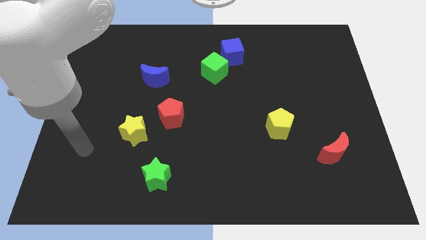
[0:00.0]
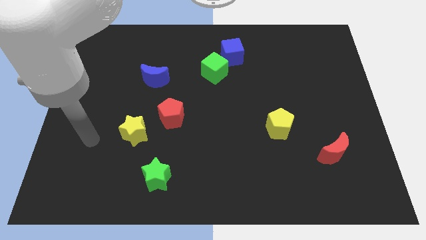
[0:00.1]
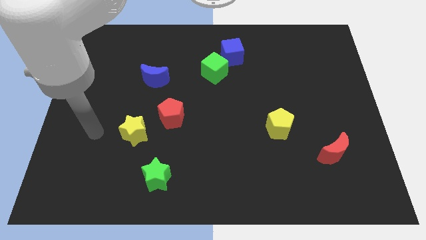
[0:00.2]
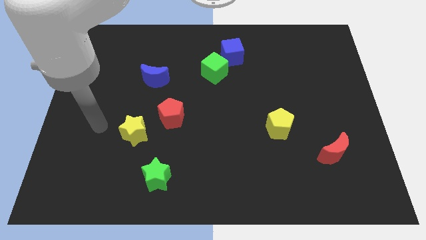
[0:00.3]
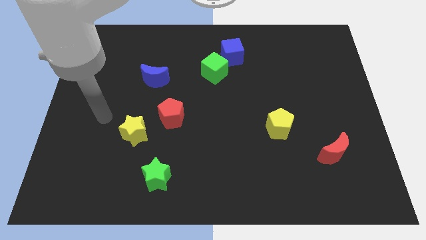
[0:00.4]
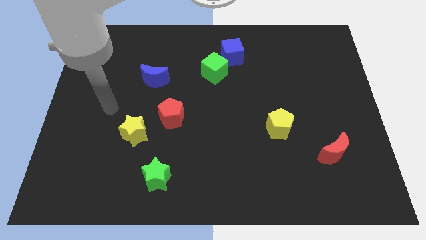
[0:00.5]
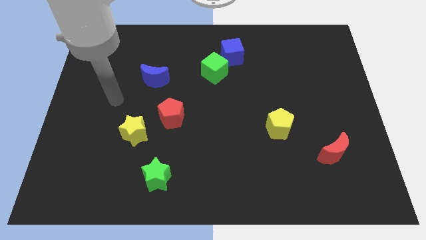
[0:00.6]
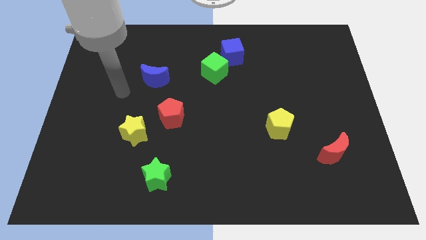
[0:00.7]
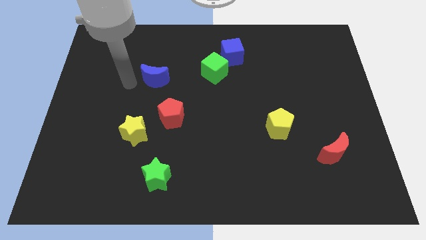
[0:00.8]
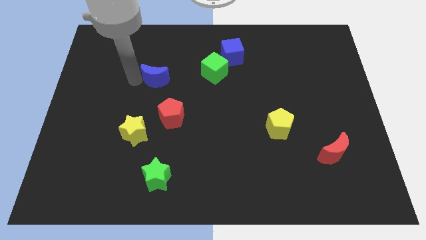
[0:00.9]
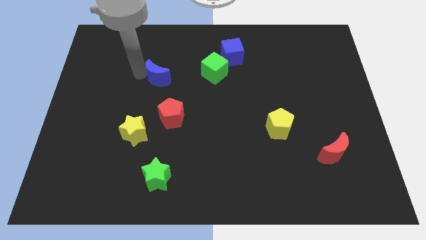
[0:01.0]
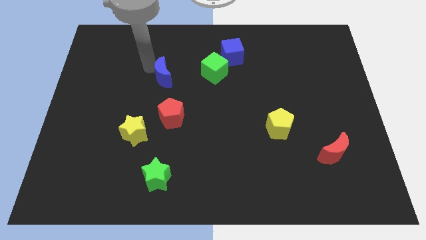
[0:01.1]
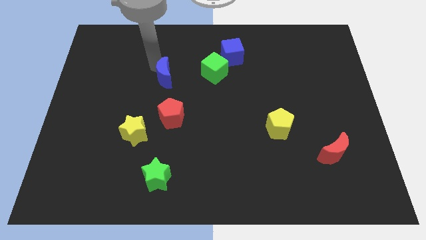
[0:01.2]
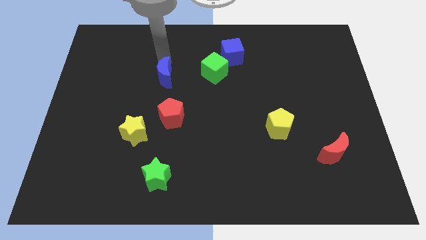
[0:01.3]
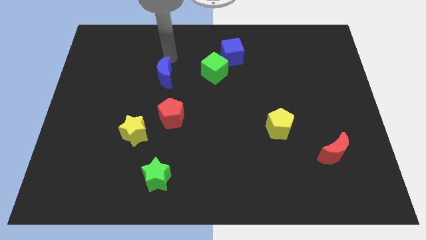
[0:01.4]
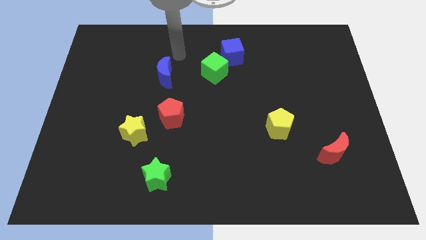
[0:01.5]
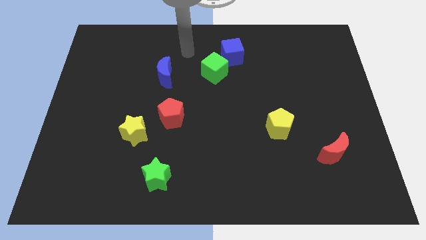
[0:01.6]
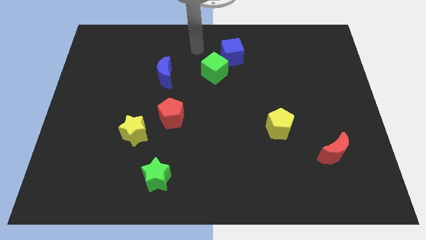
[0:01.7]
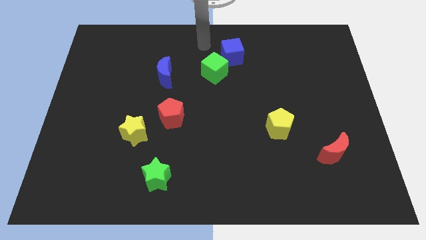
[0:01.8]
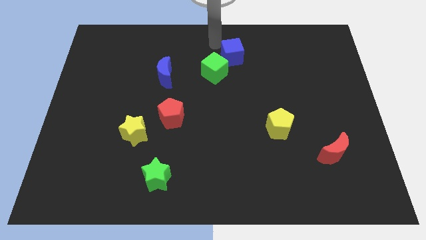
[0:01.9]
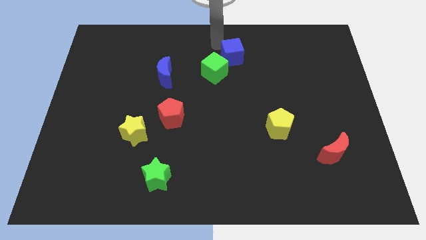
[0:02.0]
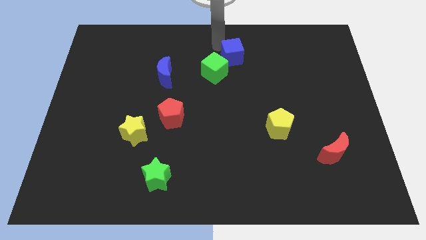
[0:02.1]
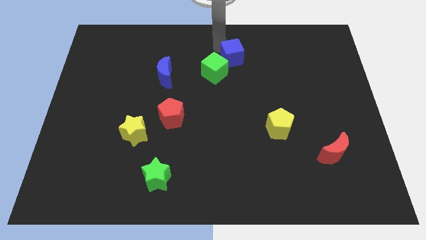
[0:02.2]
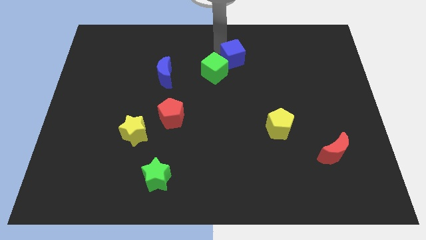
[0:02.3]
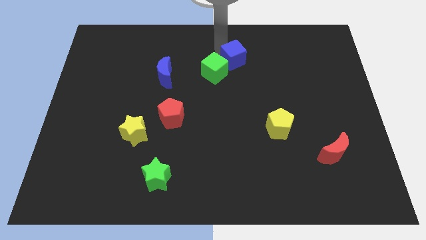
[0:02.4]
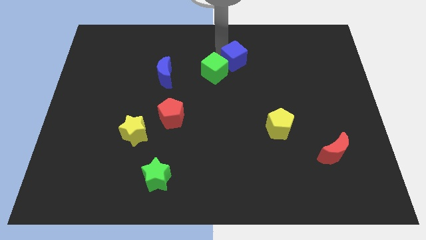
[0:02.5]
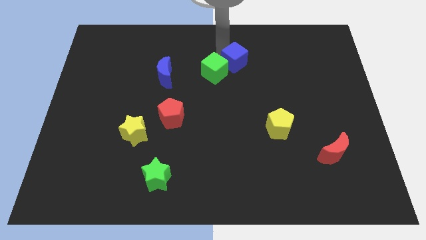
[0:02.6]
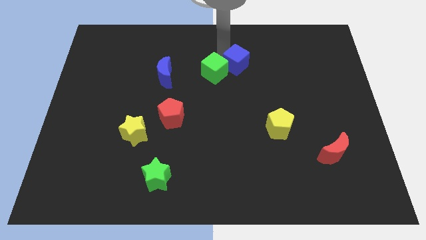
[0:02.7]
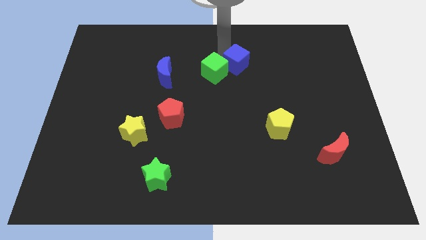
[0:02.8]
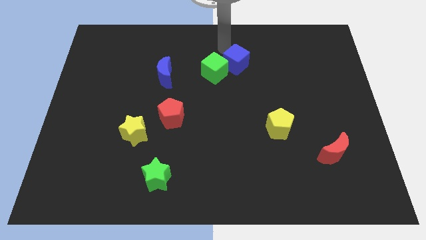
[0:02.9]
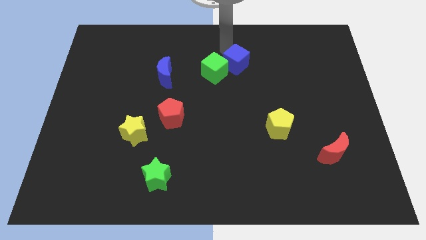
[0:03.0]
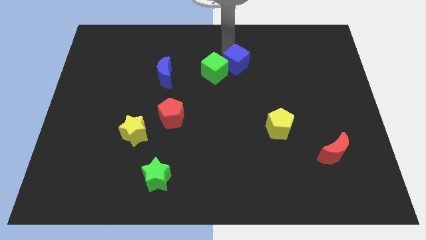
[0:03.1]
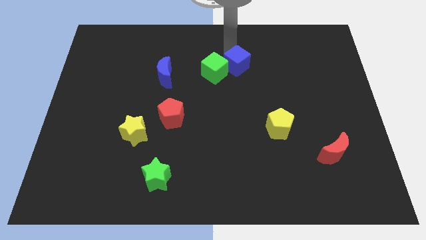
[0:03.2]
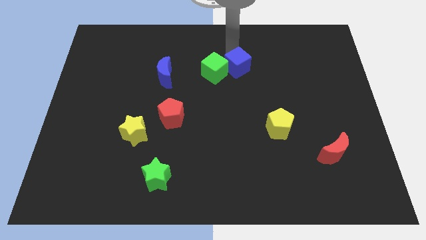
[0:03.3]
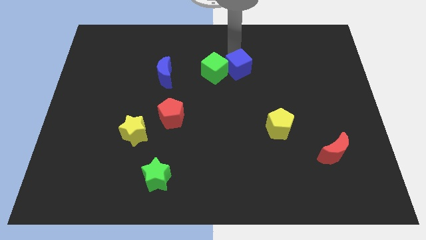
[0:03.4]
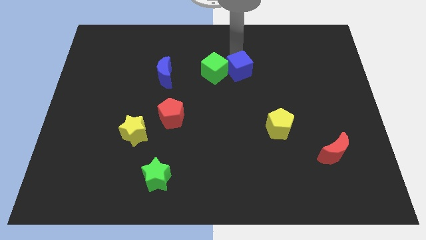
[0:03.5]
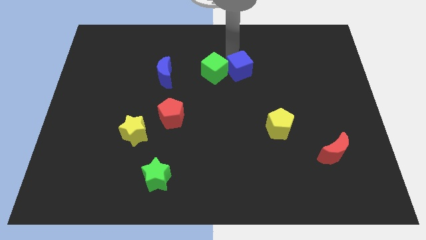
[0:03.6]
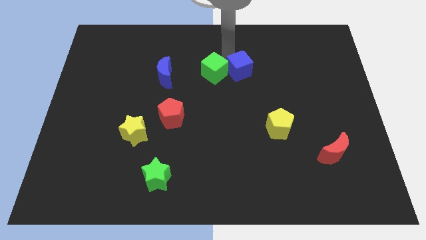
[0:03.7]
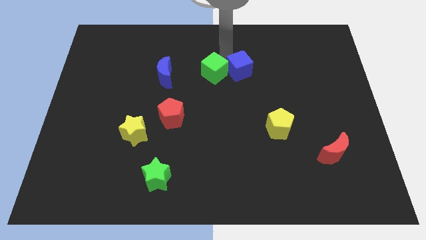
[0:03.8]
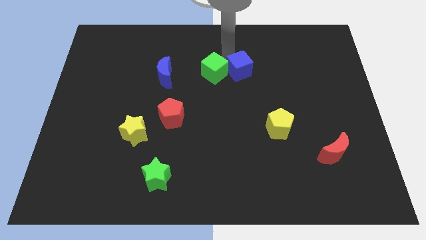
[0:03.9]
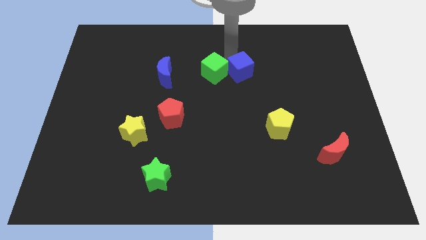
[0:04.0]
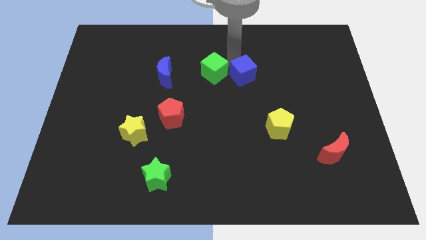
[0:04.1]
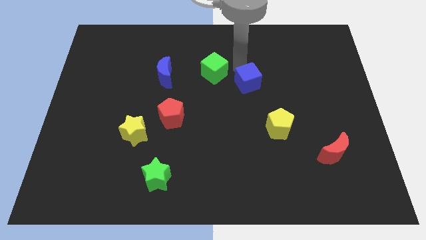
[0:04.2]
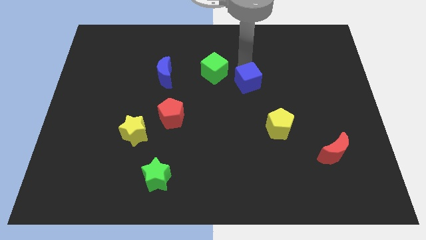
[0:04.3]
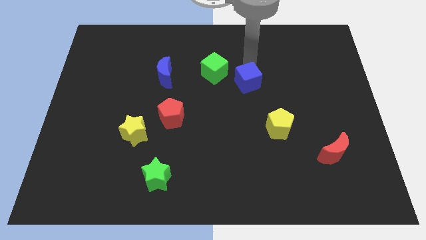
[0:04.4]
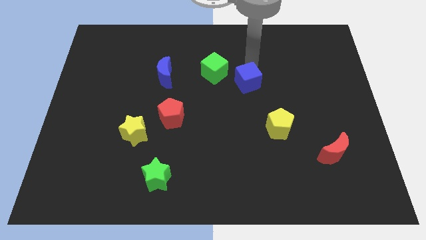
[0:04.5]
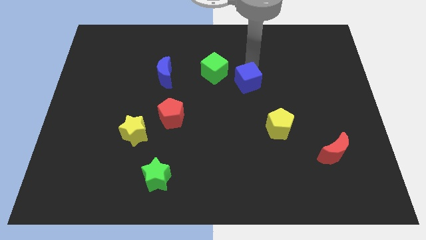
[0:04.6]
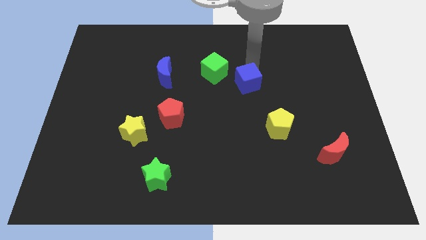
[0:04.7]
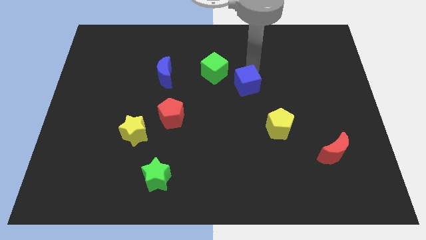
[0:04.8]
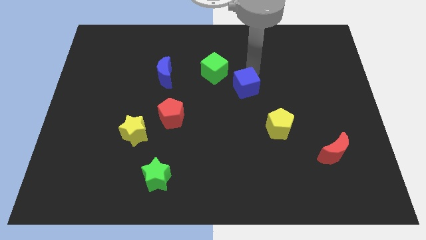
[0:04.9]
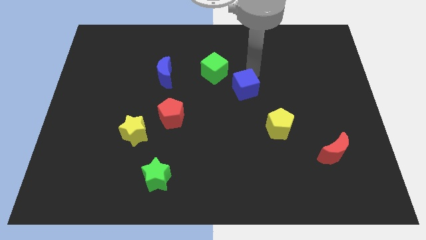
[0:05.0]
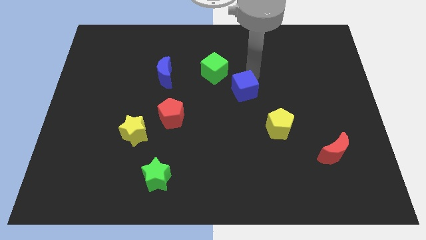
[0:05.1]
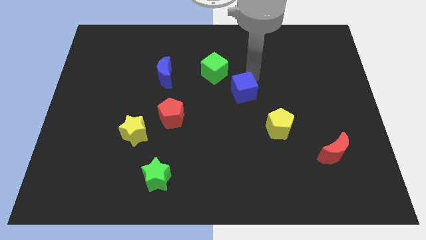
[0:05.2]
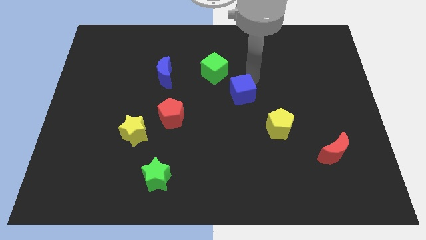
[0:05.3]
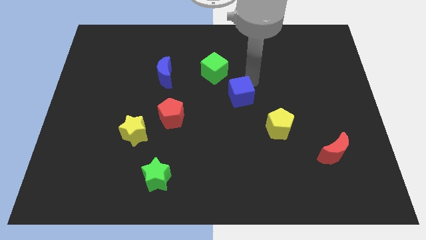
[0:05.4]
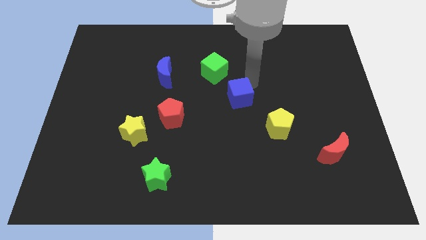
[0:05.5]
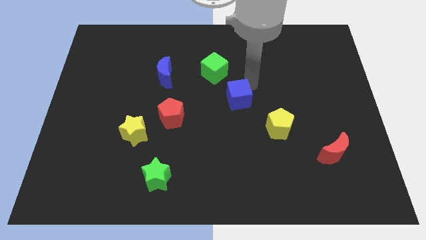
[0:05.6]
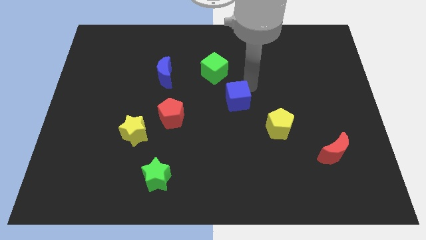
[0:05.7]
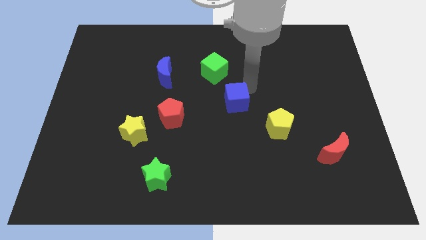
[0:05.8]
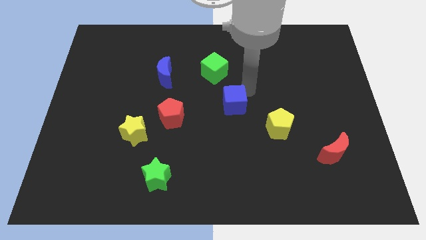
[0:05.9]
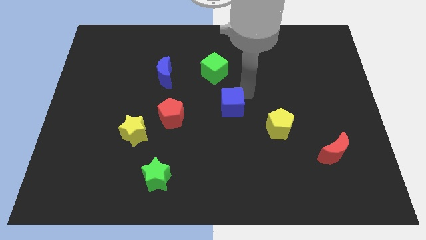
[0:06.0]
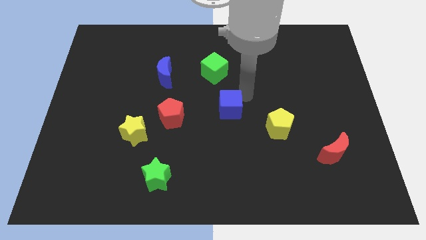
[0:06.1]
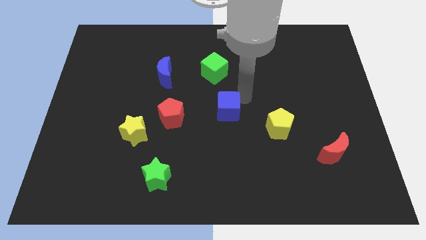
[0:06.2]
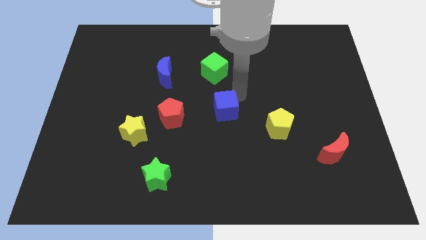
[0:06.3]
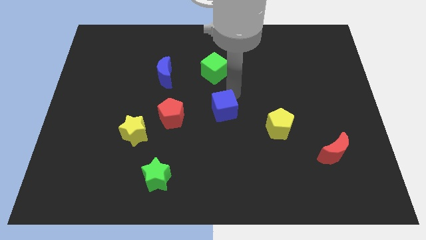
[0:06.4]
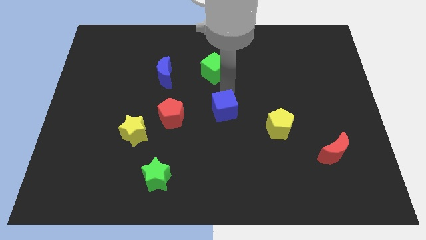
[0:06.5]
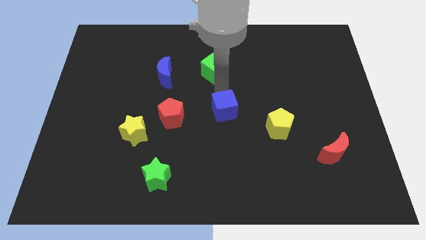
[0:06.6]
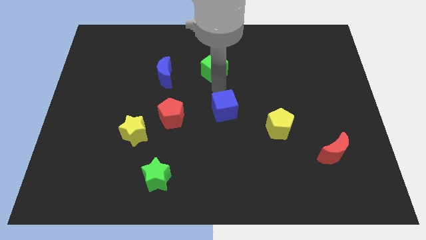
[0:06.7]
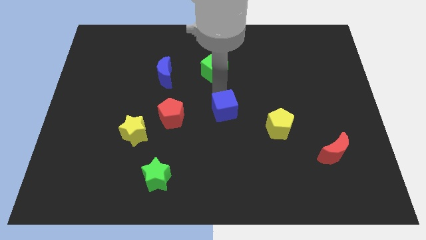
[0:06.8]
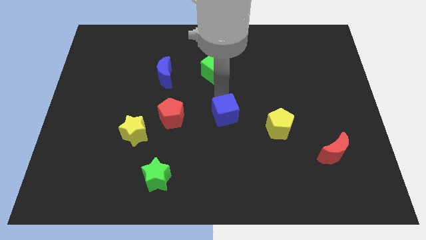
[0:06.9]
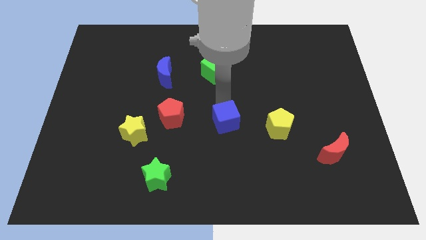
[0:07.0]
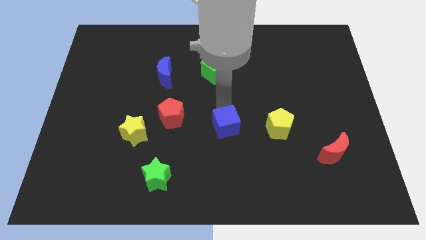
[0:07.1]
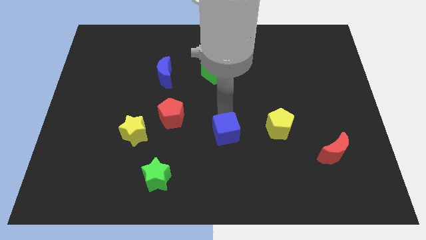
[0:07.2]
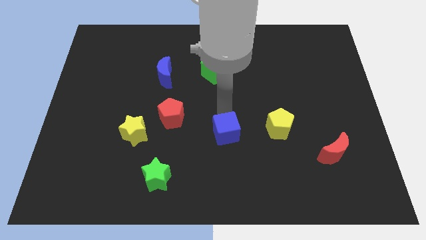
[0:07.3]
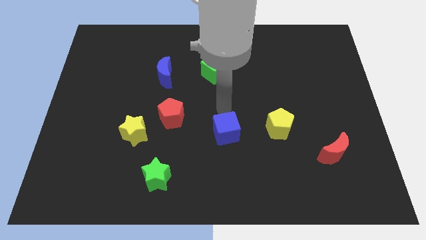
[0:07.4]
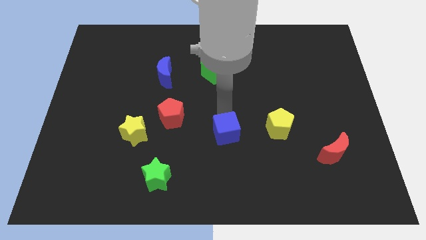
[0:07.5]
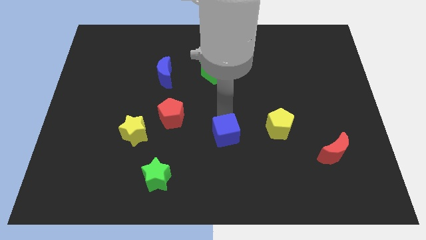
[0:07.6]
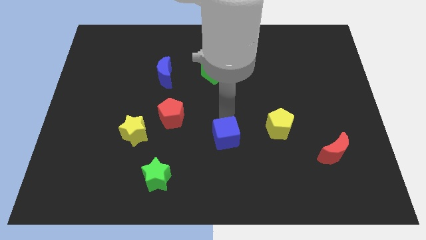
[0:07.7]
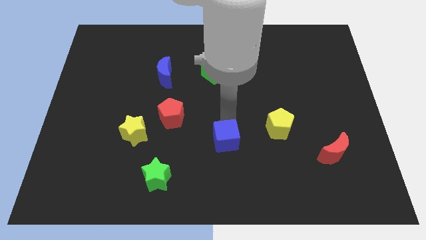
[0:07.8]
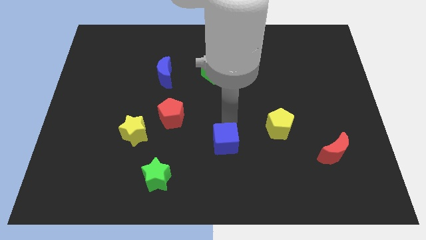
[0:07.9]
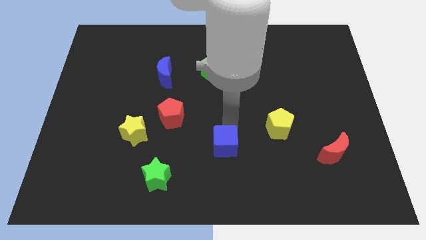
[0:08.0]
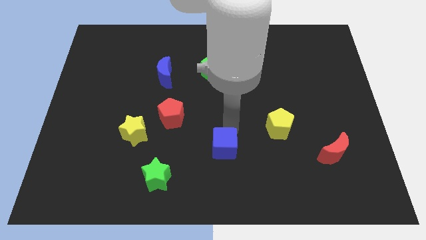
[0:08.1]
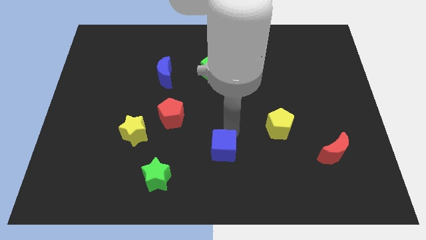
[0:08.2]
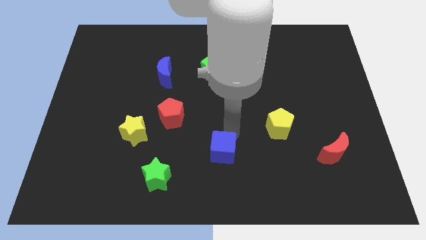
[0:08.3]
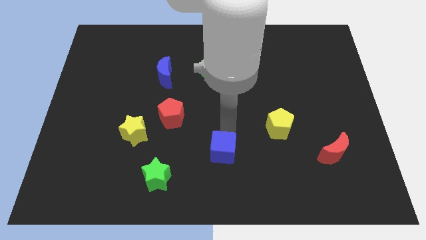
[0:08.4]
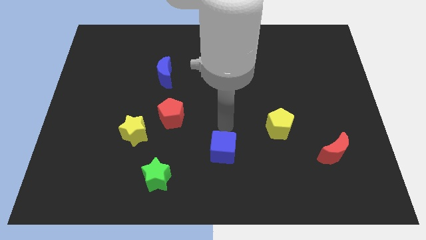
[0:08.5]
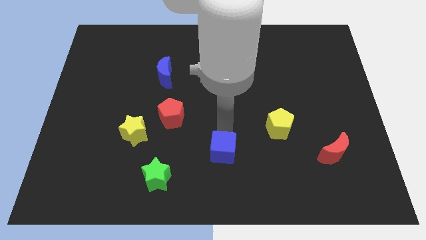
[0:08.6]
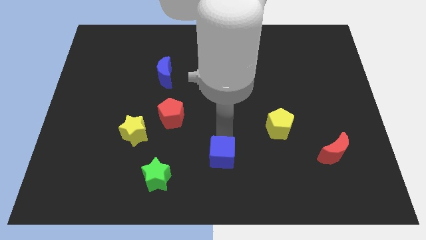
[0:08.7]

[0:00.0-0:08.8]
slide the blue cube to the bottom
